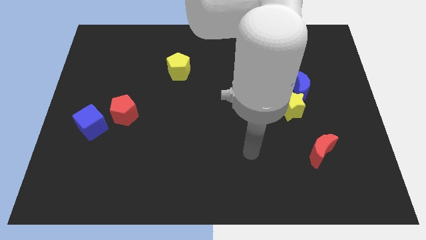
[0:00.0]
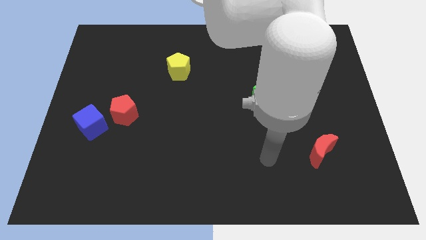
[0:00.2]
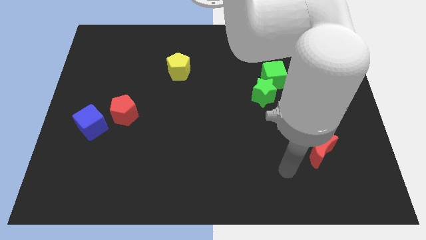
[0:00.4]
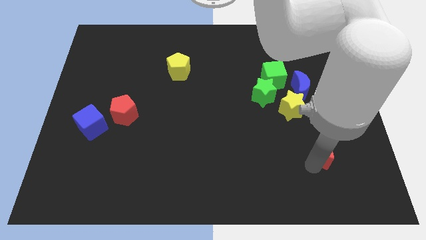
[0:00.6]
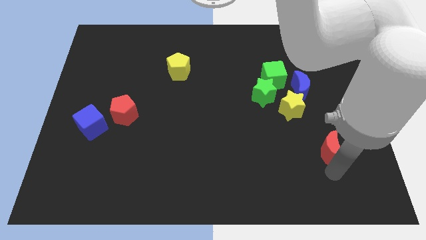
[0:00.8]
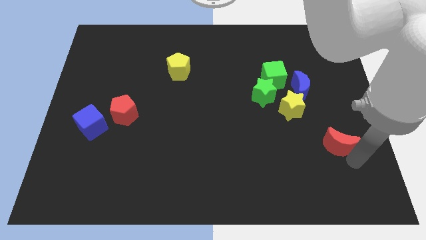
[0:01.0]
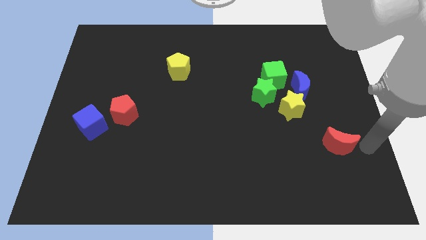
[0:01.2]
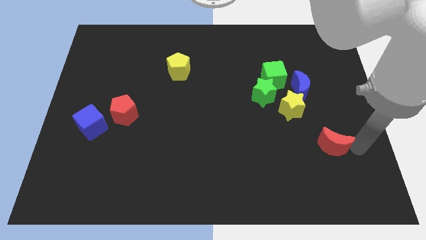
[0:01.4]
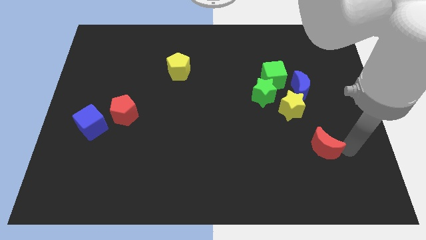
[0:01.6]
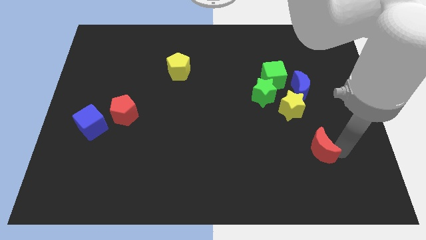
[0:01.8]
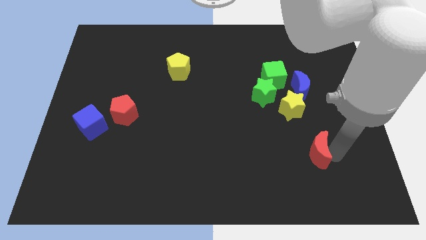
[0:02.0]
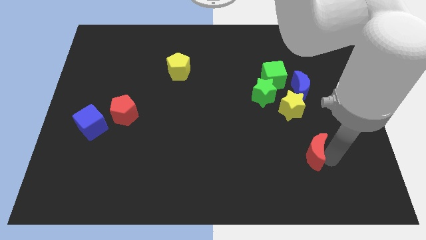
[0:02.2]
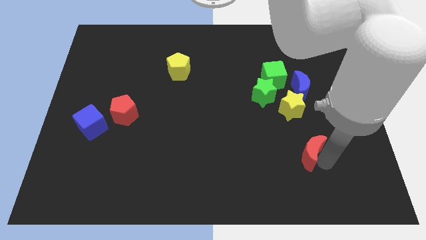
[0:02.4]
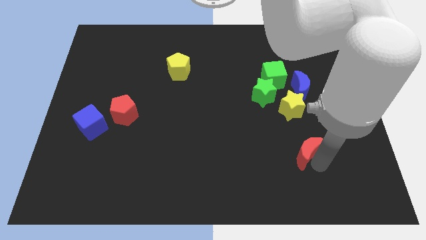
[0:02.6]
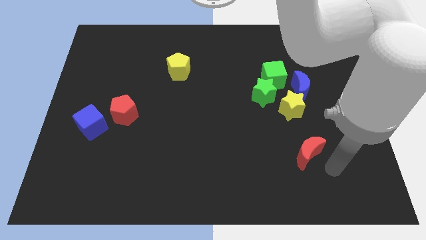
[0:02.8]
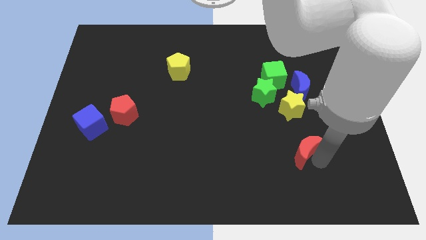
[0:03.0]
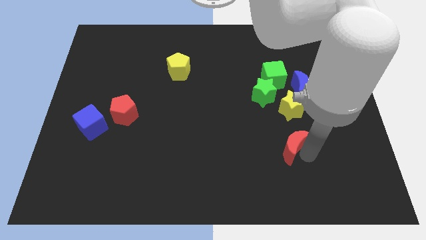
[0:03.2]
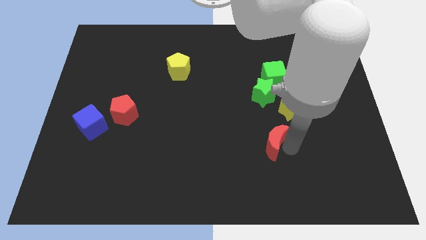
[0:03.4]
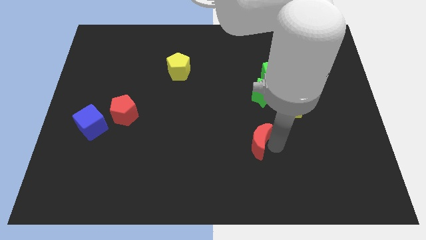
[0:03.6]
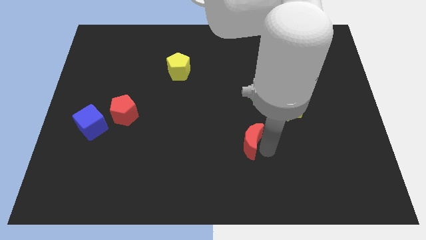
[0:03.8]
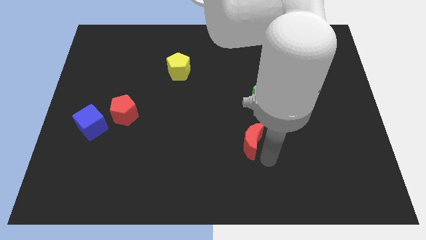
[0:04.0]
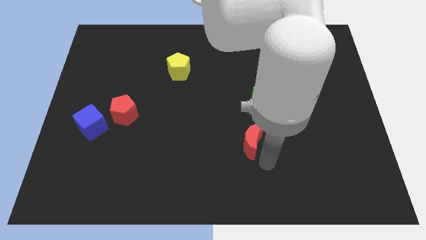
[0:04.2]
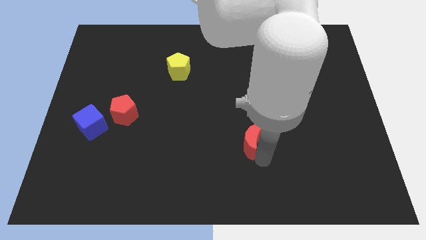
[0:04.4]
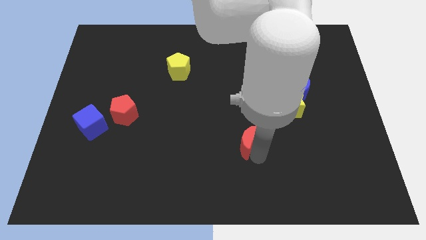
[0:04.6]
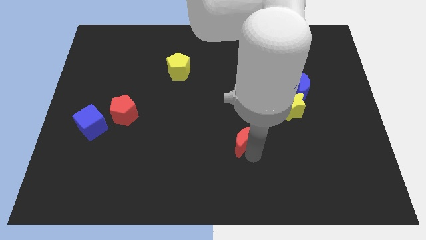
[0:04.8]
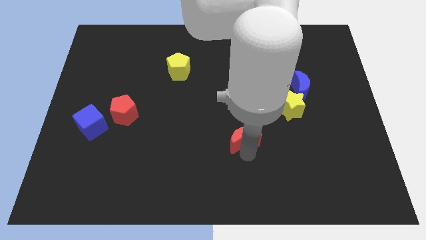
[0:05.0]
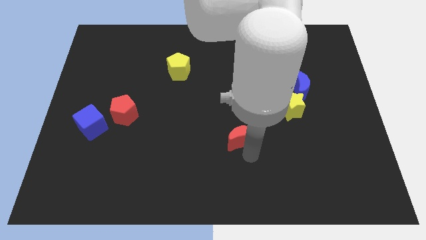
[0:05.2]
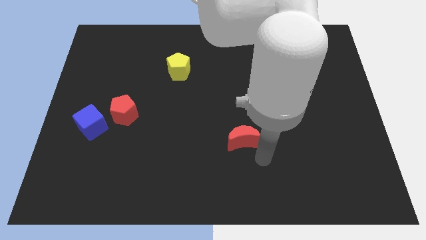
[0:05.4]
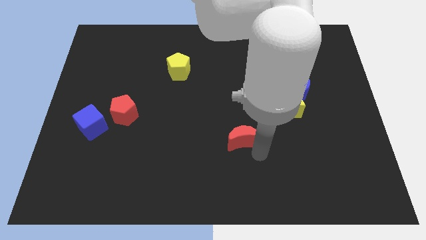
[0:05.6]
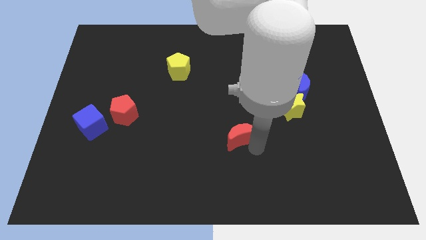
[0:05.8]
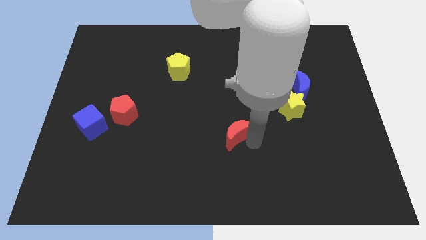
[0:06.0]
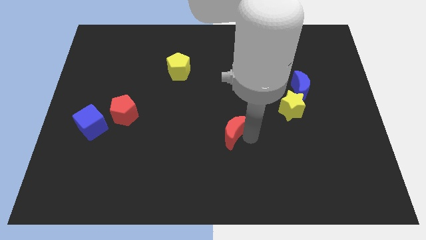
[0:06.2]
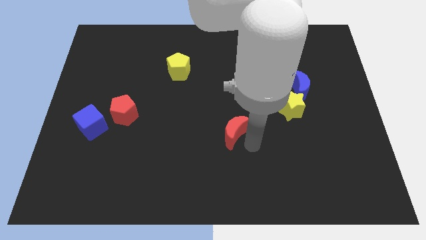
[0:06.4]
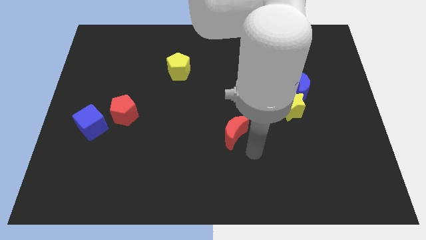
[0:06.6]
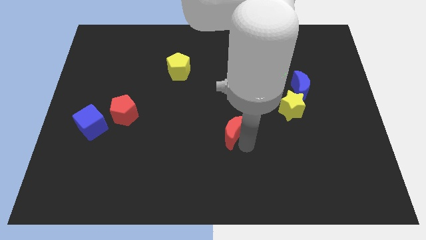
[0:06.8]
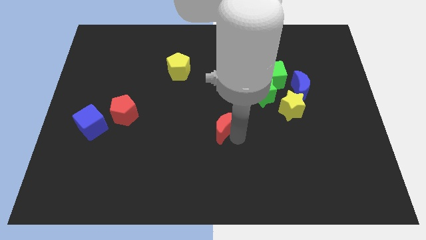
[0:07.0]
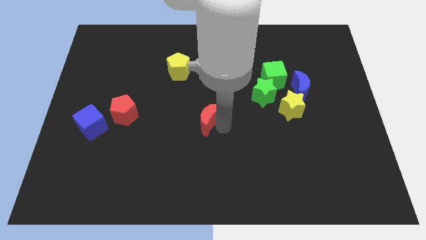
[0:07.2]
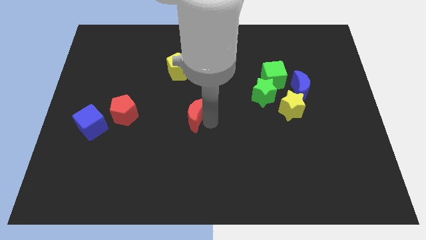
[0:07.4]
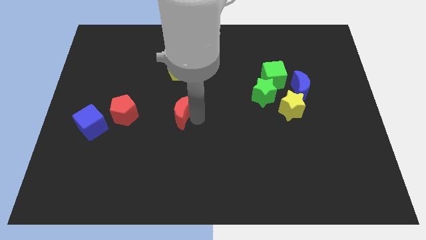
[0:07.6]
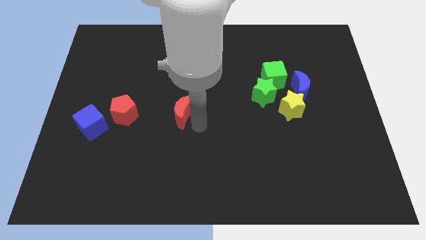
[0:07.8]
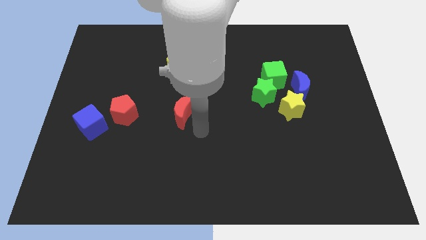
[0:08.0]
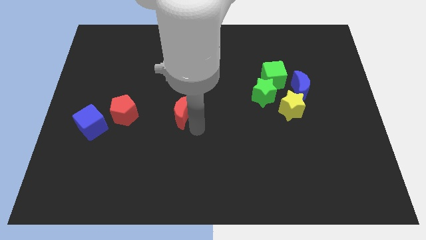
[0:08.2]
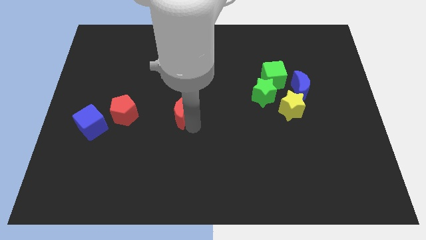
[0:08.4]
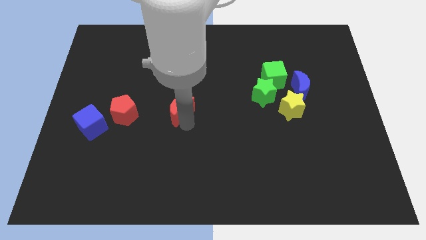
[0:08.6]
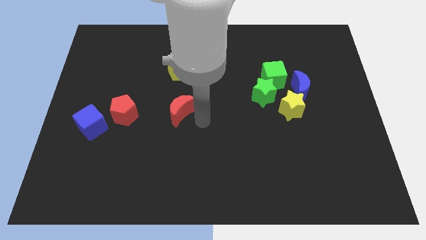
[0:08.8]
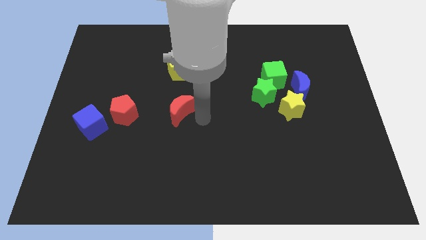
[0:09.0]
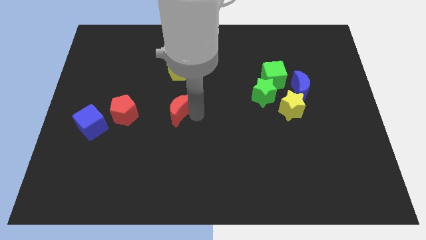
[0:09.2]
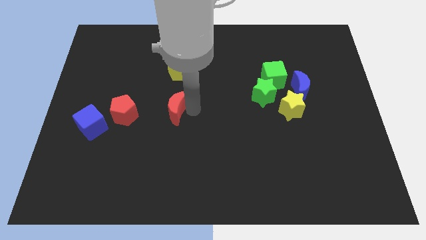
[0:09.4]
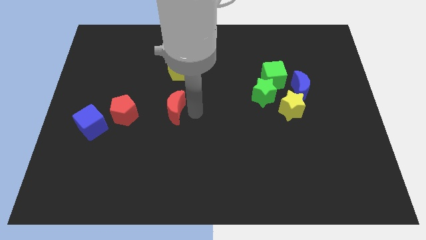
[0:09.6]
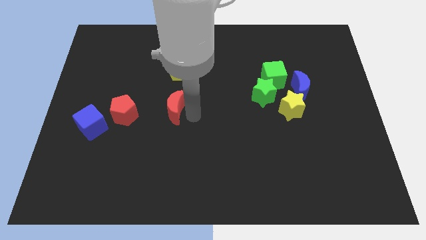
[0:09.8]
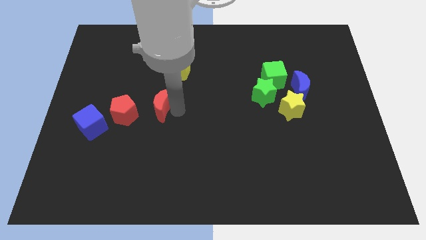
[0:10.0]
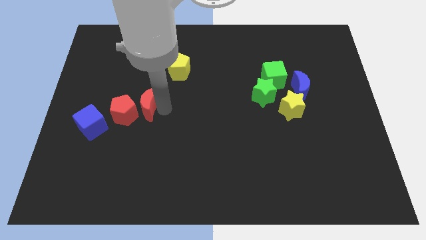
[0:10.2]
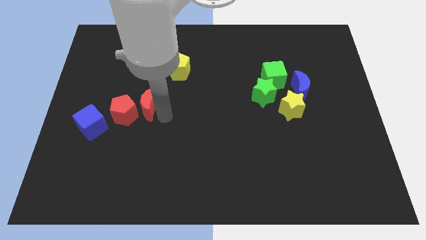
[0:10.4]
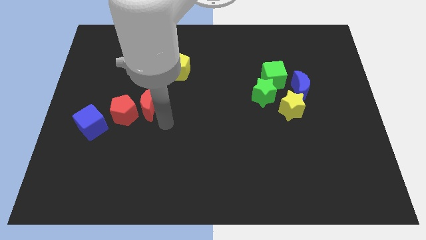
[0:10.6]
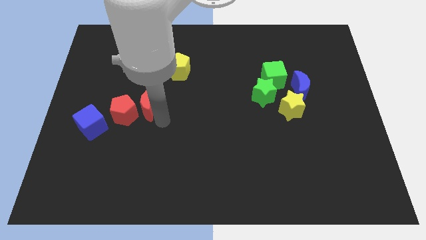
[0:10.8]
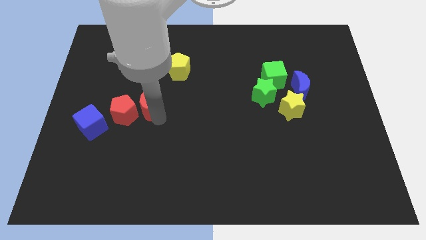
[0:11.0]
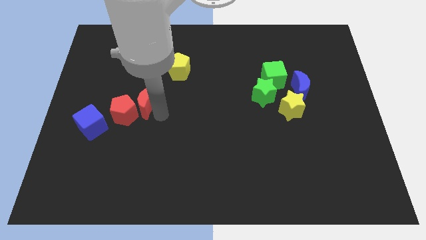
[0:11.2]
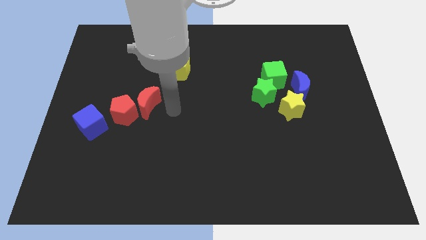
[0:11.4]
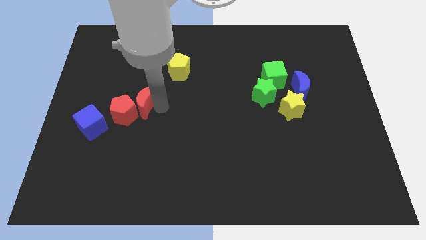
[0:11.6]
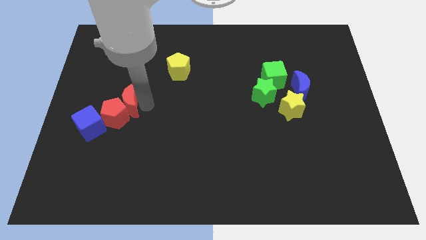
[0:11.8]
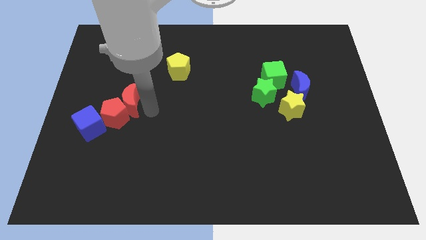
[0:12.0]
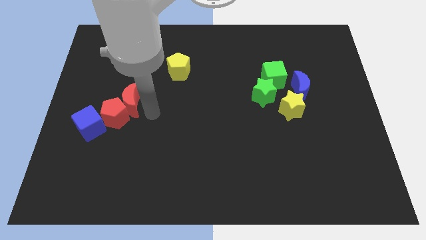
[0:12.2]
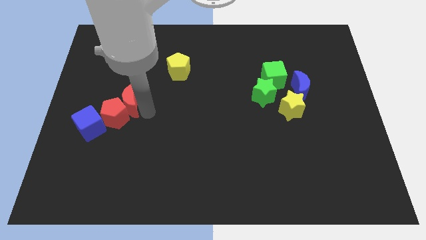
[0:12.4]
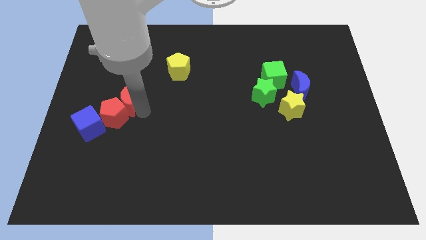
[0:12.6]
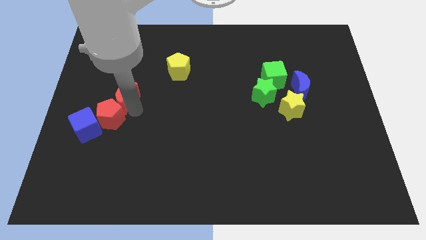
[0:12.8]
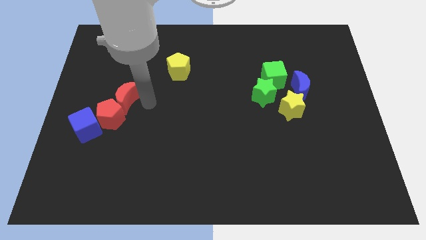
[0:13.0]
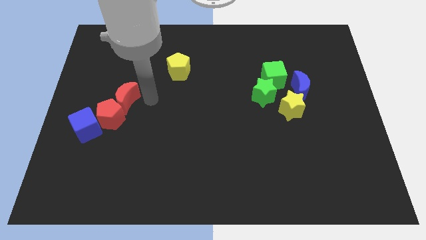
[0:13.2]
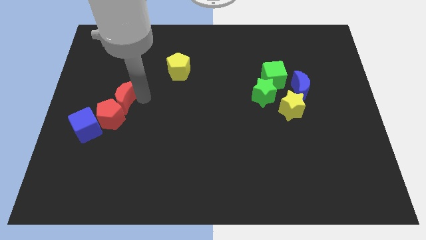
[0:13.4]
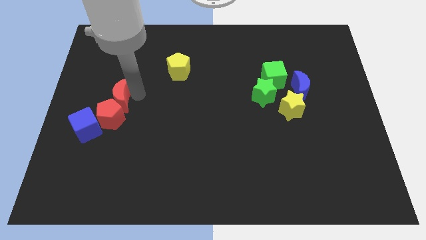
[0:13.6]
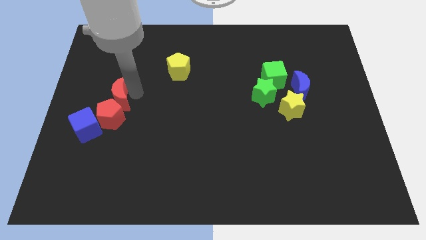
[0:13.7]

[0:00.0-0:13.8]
put the red moon diagonally up and to the left of the red pentagon
